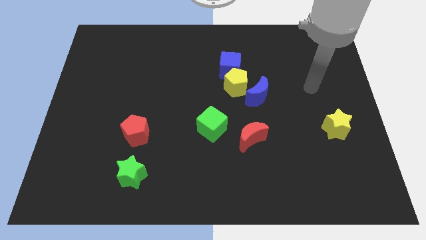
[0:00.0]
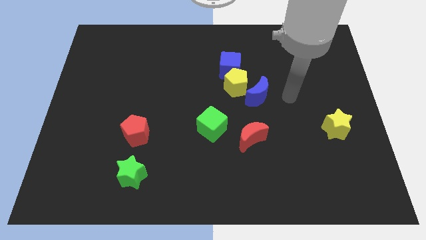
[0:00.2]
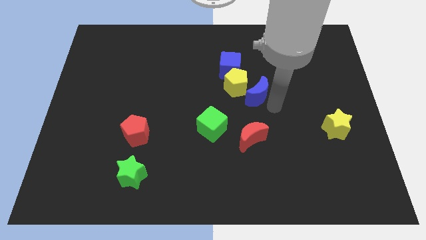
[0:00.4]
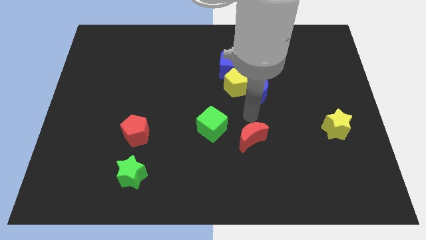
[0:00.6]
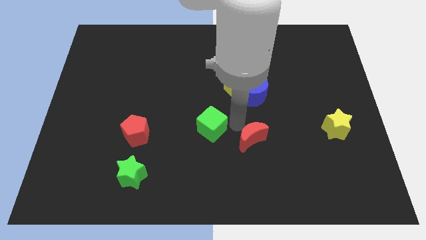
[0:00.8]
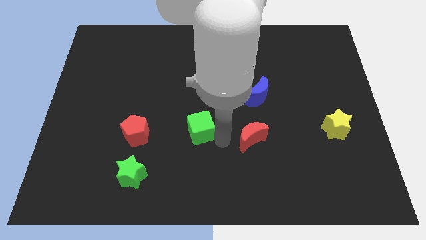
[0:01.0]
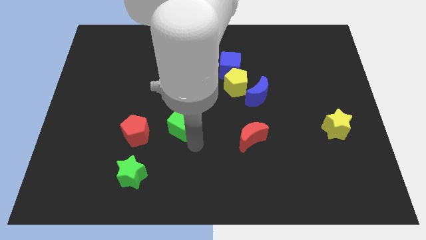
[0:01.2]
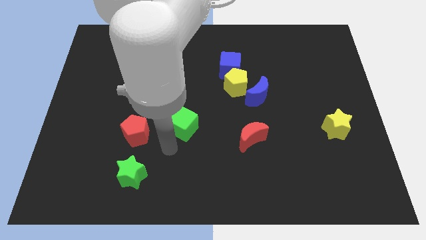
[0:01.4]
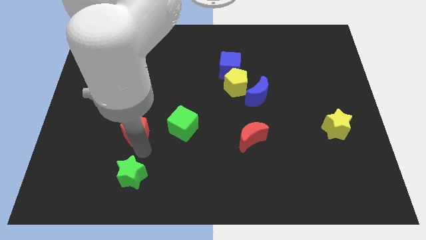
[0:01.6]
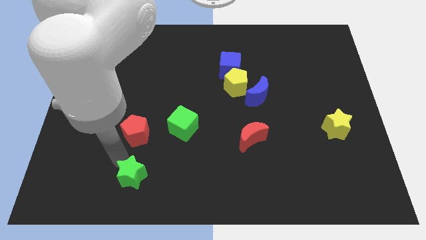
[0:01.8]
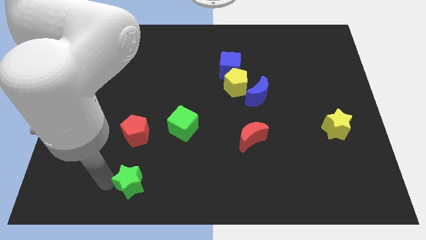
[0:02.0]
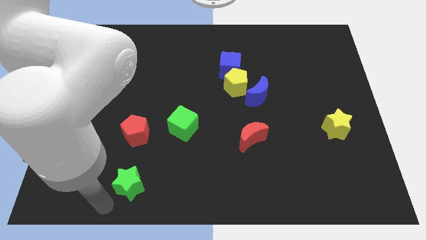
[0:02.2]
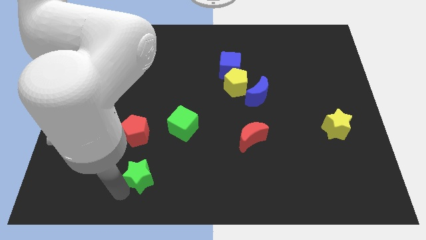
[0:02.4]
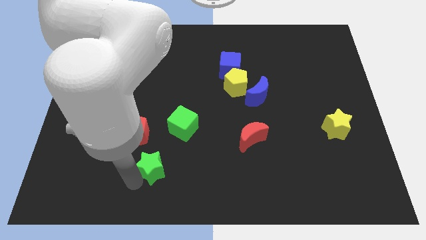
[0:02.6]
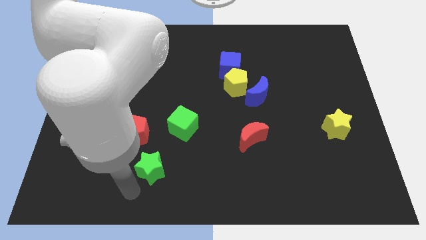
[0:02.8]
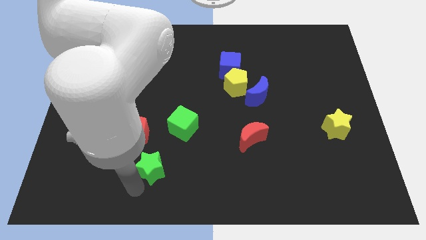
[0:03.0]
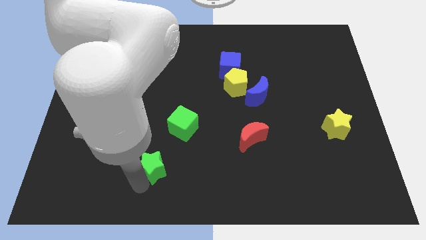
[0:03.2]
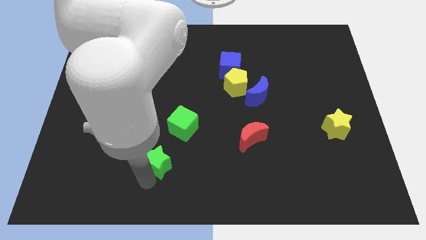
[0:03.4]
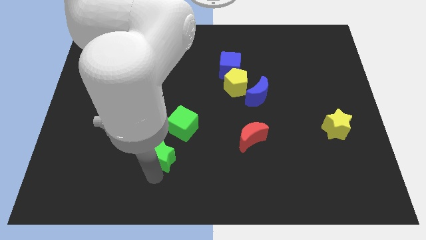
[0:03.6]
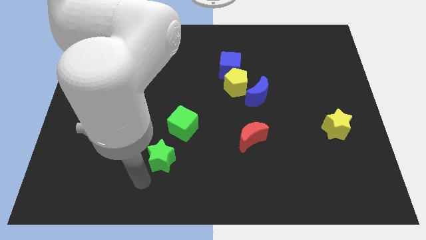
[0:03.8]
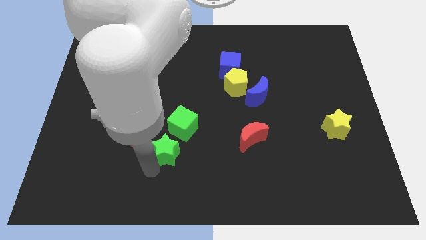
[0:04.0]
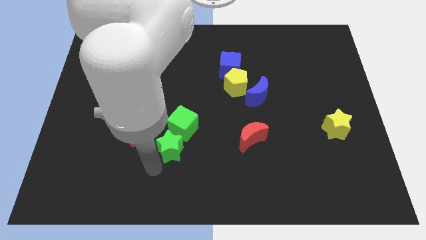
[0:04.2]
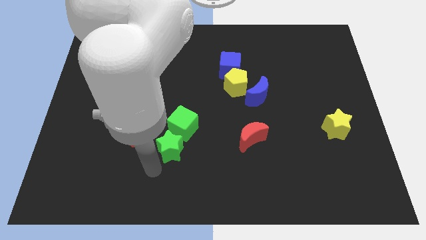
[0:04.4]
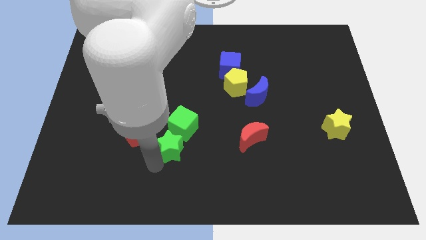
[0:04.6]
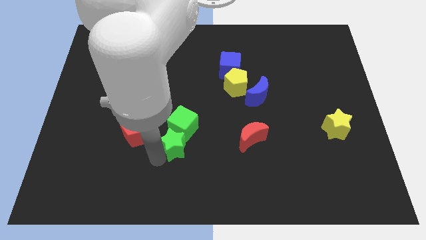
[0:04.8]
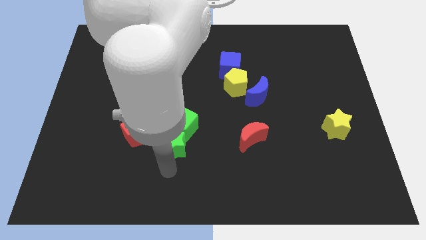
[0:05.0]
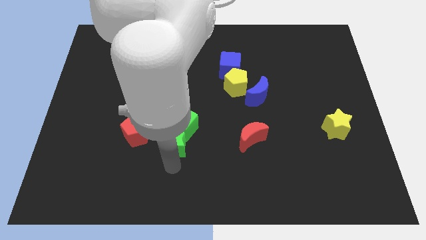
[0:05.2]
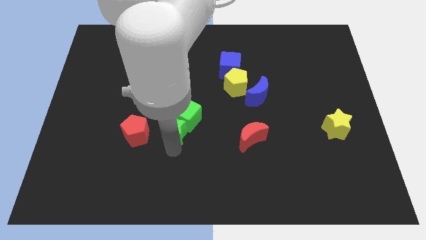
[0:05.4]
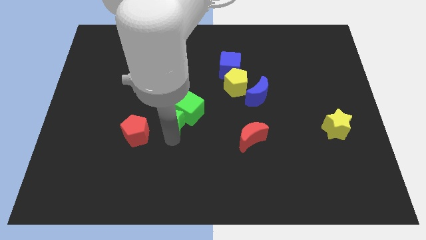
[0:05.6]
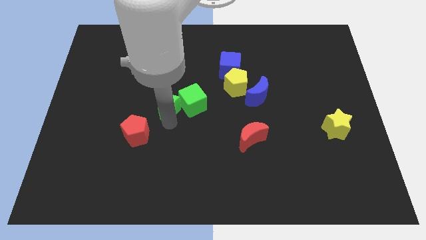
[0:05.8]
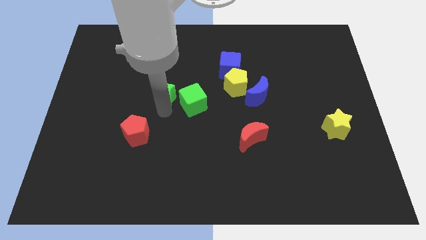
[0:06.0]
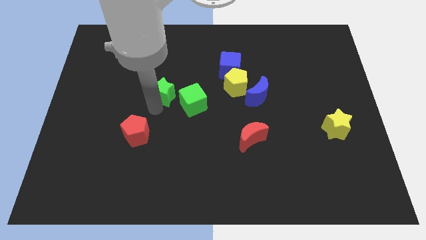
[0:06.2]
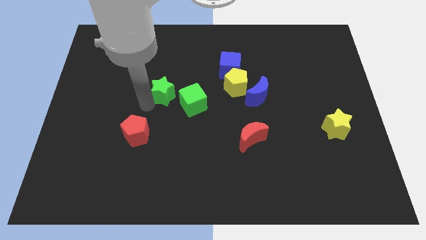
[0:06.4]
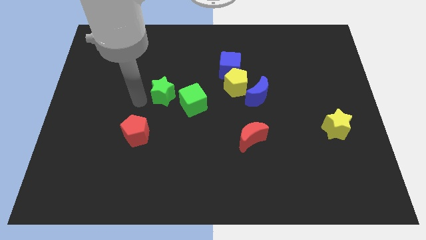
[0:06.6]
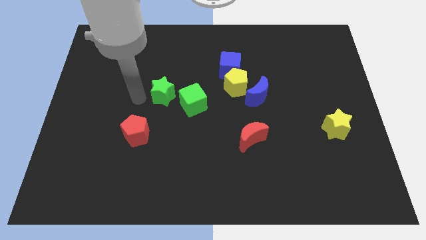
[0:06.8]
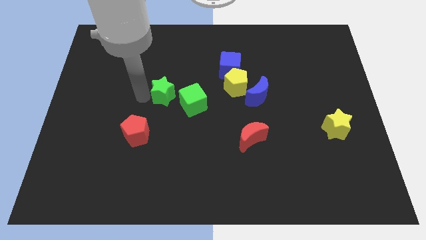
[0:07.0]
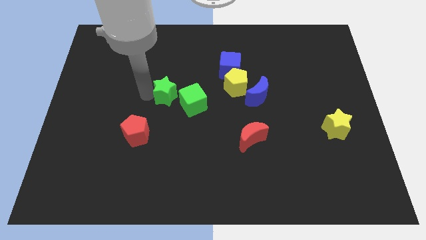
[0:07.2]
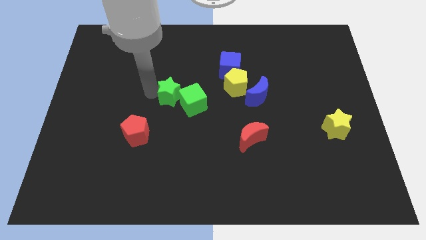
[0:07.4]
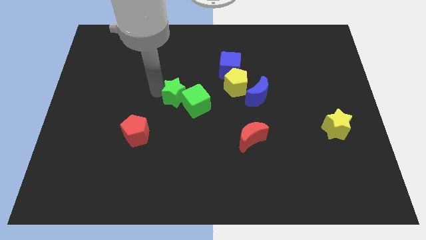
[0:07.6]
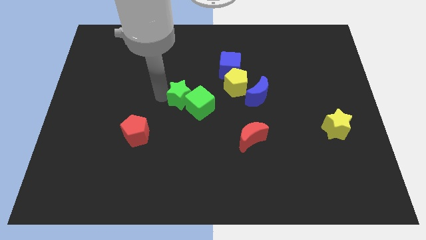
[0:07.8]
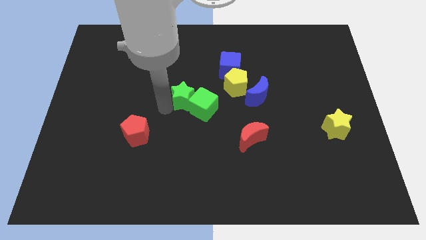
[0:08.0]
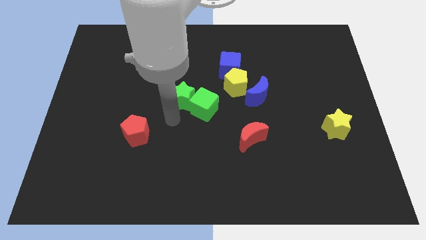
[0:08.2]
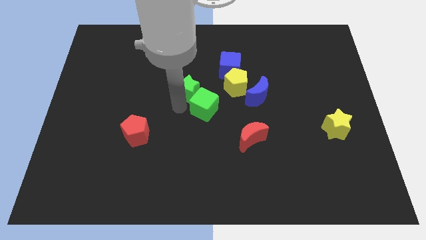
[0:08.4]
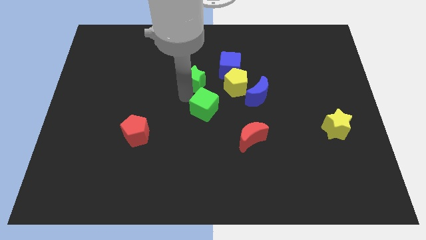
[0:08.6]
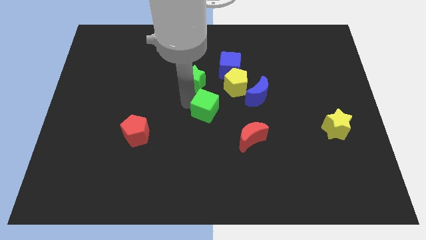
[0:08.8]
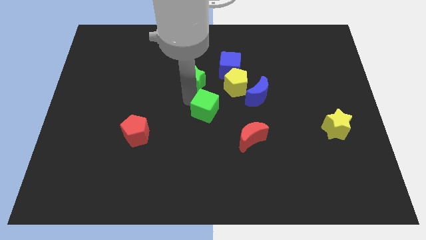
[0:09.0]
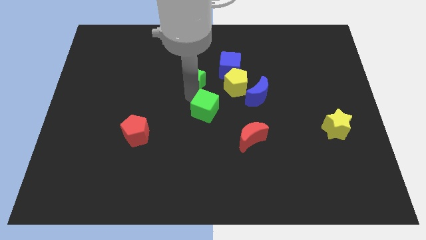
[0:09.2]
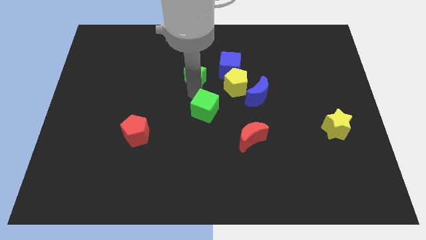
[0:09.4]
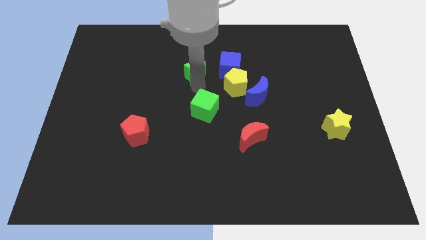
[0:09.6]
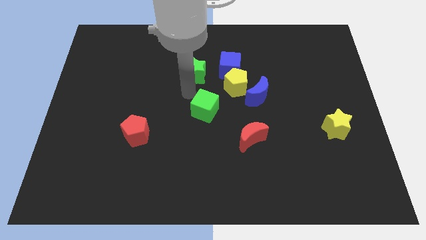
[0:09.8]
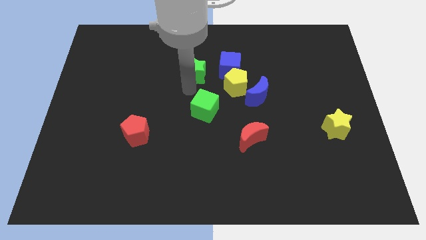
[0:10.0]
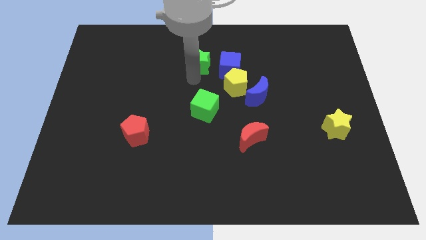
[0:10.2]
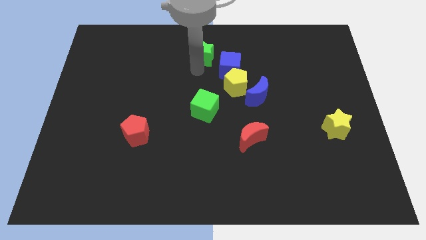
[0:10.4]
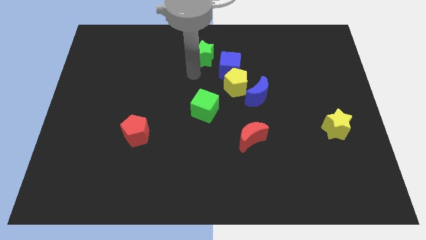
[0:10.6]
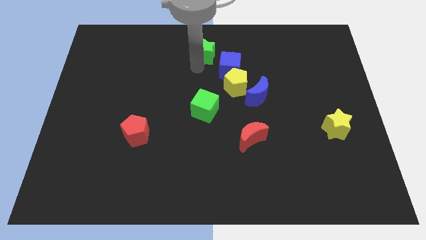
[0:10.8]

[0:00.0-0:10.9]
push the green star to the top side
